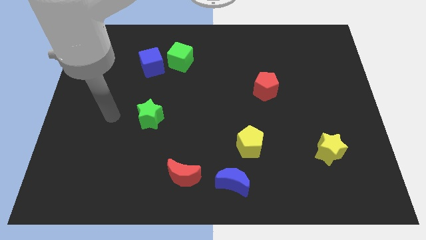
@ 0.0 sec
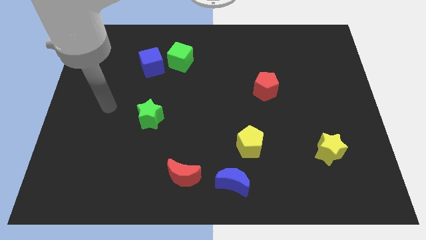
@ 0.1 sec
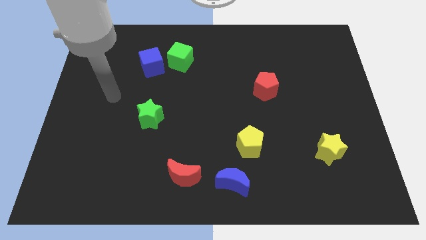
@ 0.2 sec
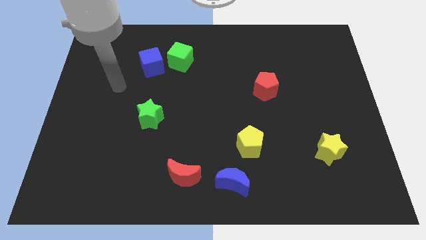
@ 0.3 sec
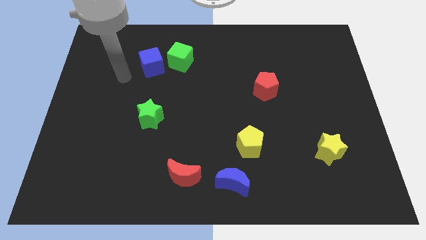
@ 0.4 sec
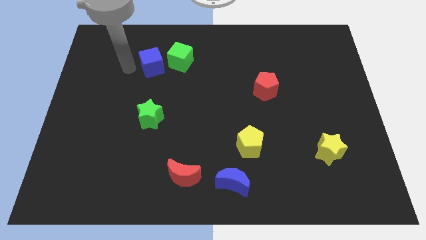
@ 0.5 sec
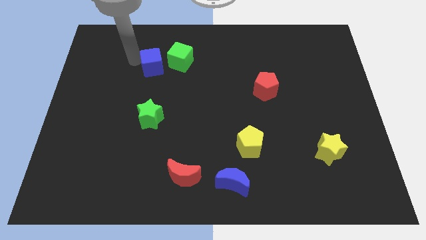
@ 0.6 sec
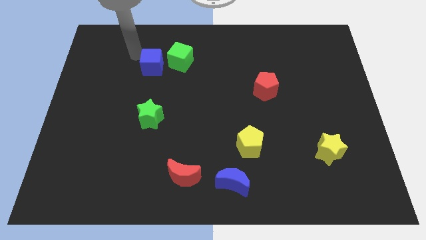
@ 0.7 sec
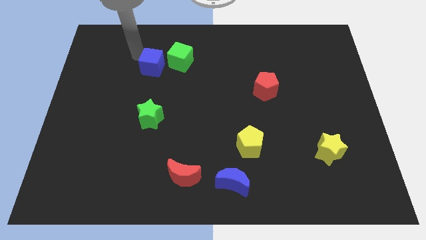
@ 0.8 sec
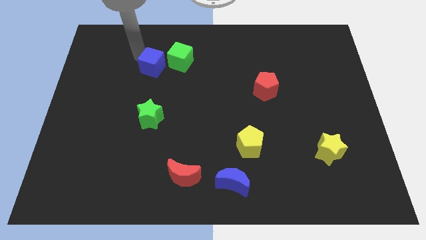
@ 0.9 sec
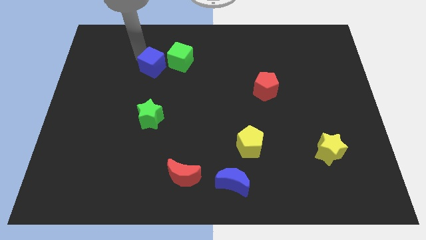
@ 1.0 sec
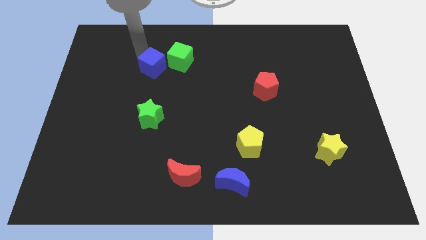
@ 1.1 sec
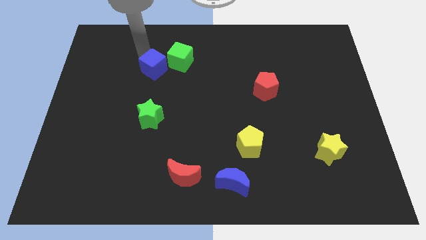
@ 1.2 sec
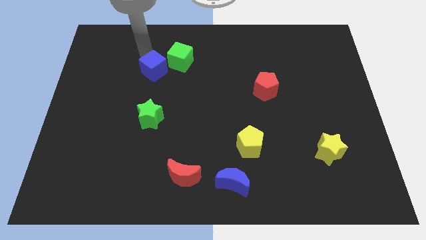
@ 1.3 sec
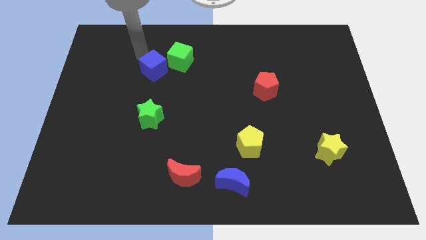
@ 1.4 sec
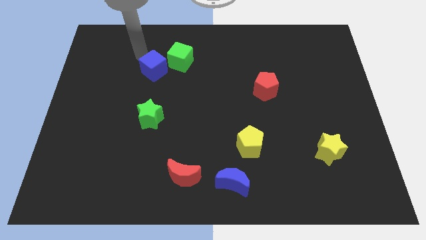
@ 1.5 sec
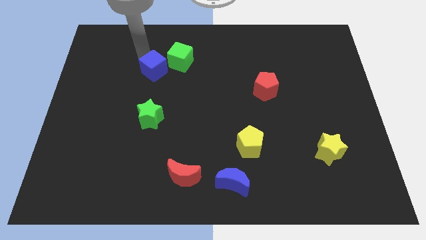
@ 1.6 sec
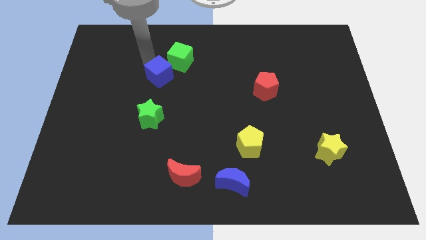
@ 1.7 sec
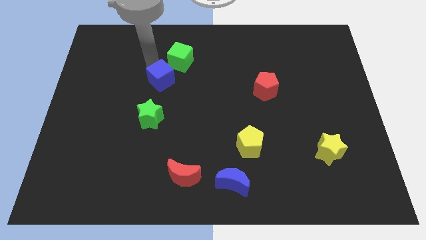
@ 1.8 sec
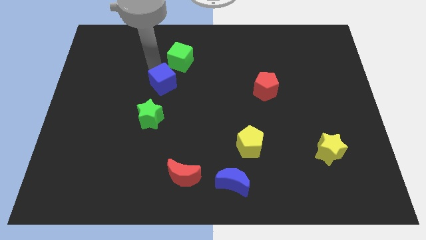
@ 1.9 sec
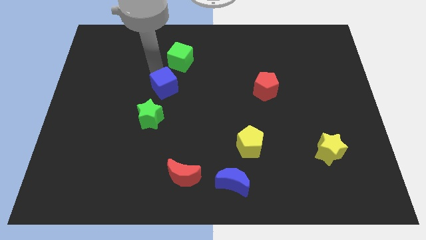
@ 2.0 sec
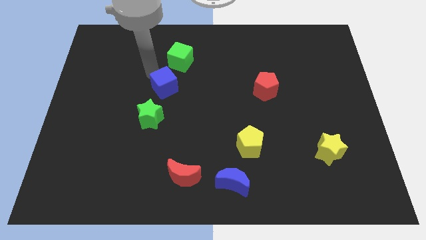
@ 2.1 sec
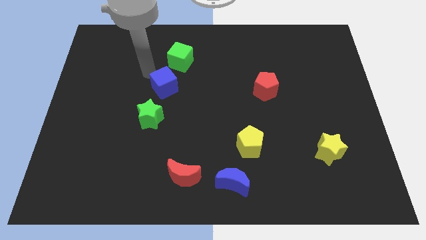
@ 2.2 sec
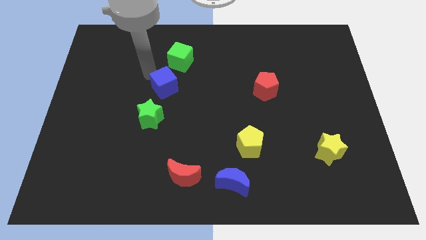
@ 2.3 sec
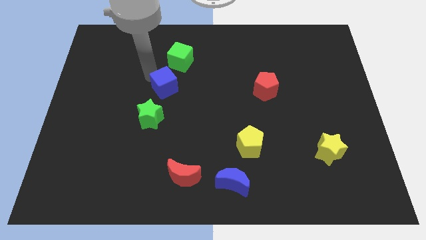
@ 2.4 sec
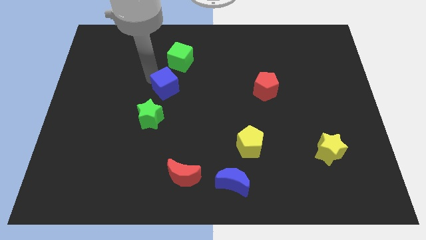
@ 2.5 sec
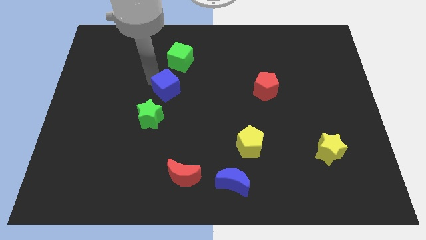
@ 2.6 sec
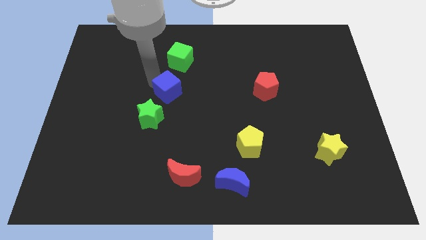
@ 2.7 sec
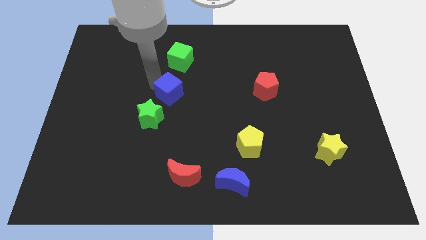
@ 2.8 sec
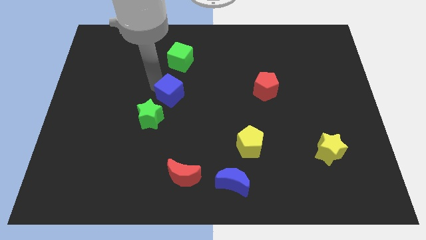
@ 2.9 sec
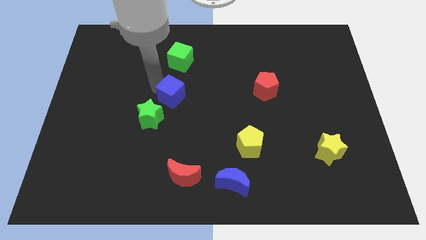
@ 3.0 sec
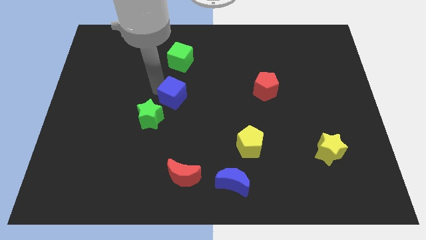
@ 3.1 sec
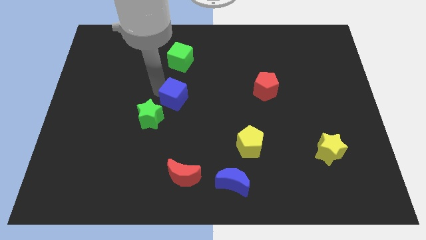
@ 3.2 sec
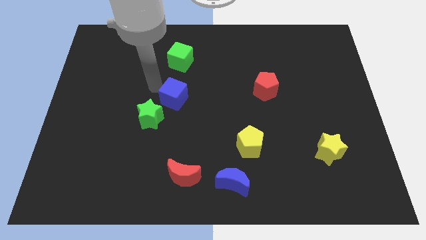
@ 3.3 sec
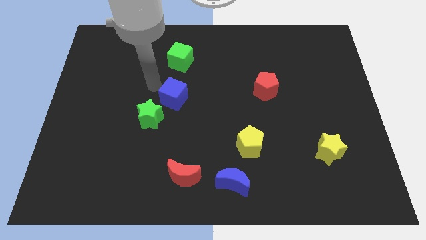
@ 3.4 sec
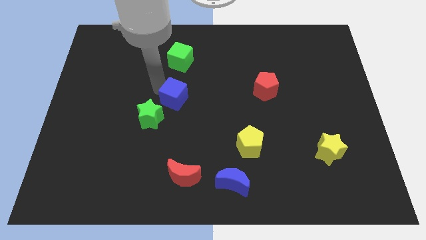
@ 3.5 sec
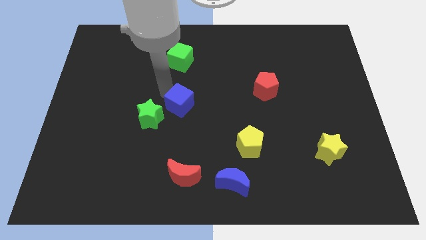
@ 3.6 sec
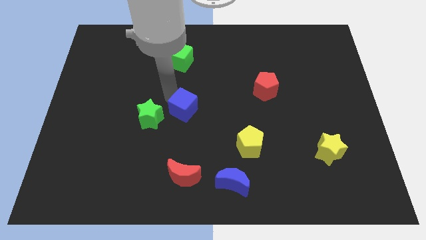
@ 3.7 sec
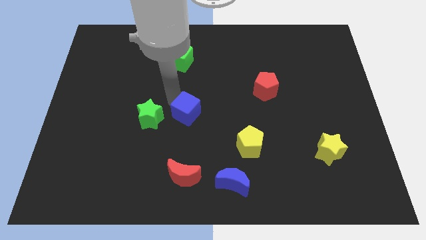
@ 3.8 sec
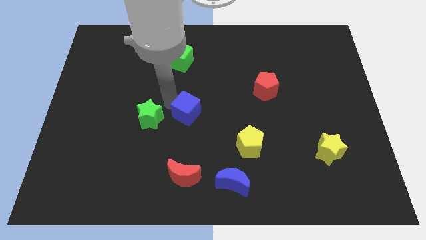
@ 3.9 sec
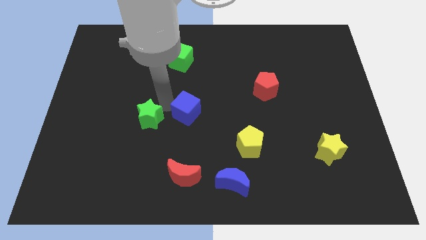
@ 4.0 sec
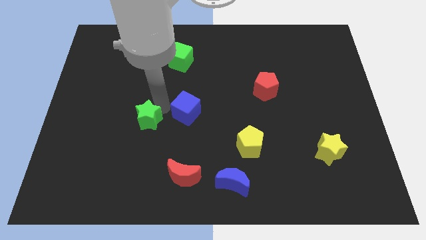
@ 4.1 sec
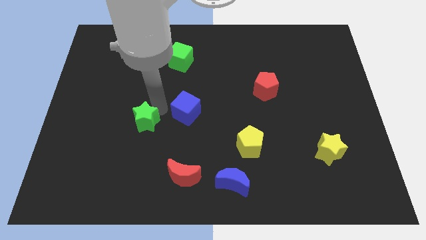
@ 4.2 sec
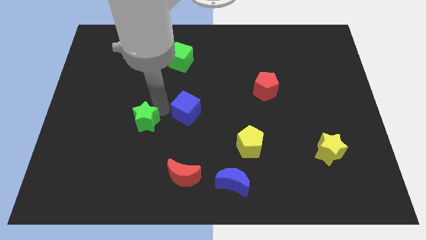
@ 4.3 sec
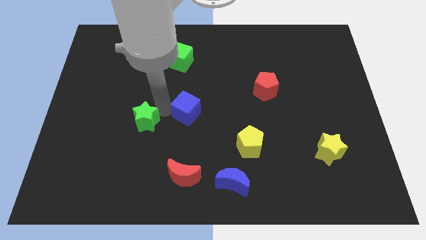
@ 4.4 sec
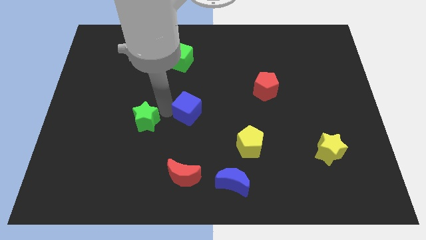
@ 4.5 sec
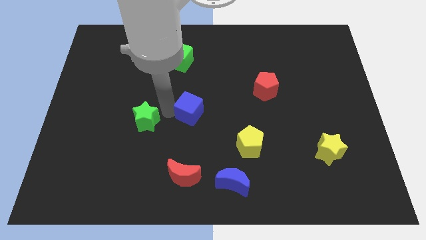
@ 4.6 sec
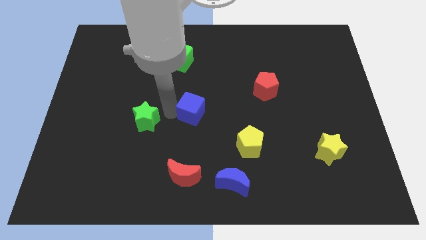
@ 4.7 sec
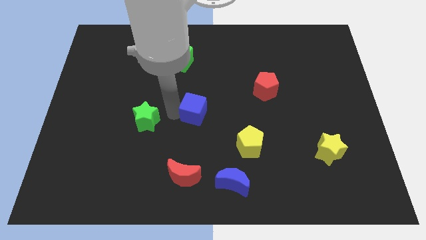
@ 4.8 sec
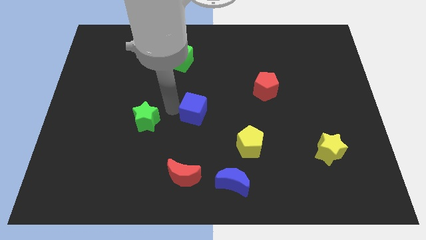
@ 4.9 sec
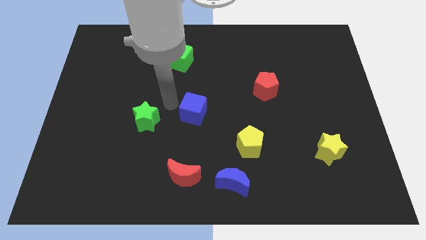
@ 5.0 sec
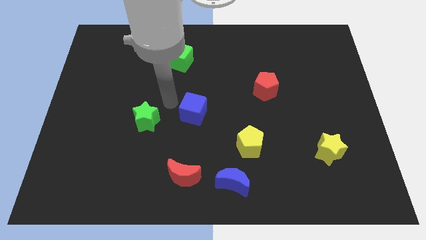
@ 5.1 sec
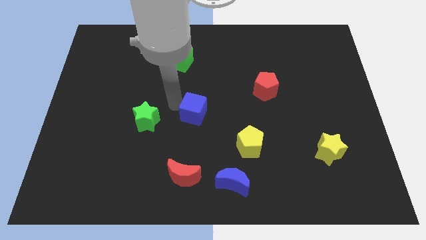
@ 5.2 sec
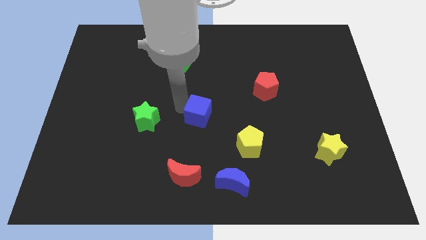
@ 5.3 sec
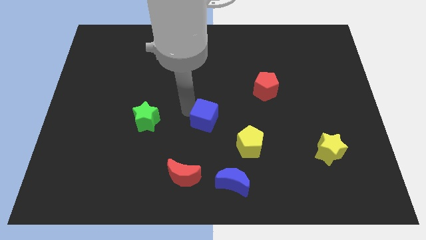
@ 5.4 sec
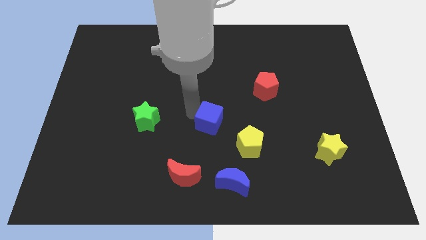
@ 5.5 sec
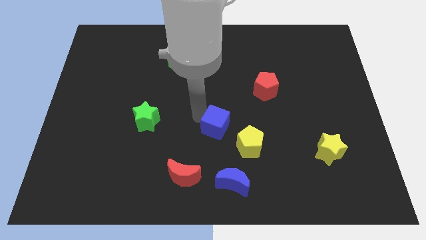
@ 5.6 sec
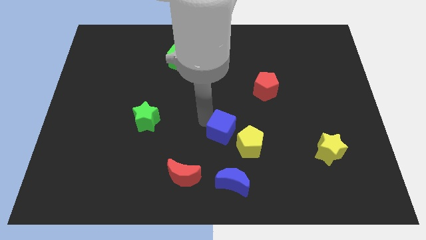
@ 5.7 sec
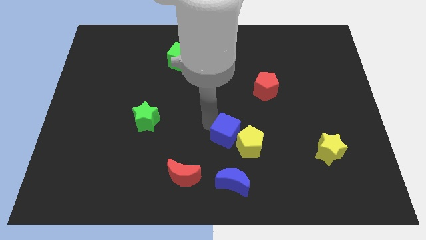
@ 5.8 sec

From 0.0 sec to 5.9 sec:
push the blue cube towards the yellow pentagon
